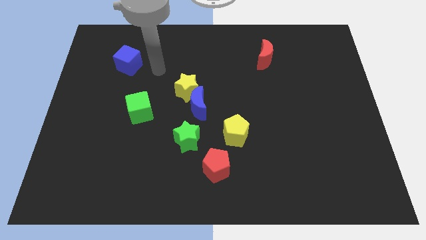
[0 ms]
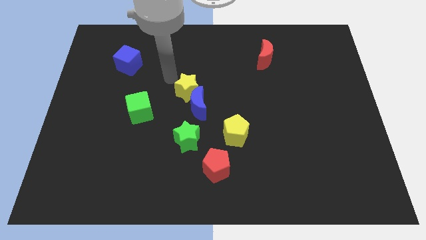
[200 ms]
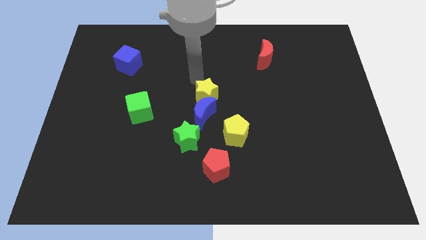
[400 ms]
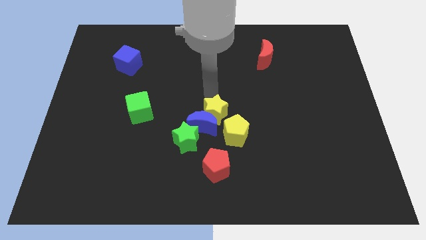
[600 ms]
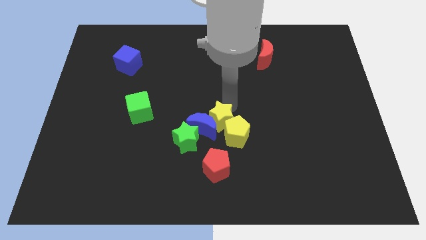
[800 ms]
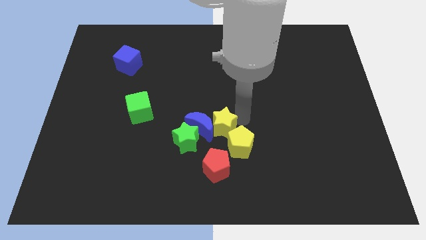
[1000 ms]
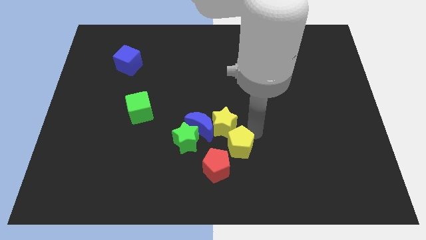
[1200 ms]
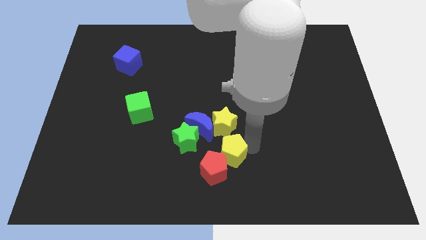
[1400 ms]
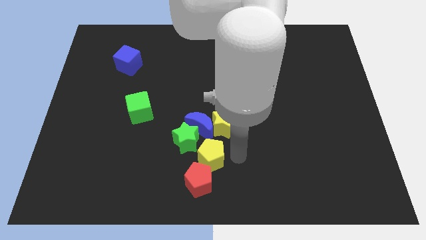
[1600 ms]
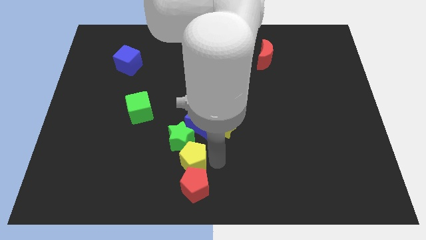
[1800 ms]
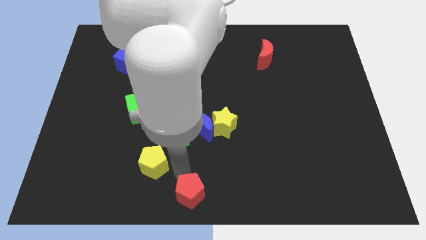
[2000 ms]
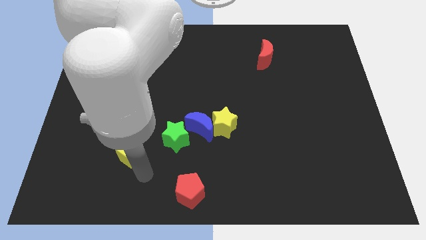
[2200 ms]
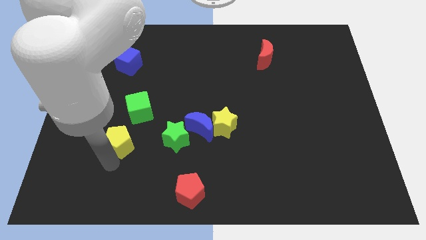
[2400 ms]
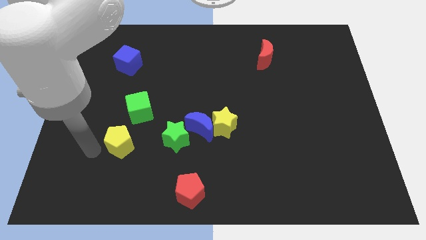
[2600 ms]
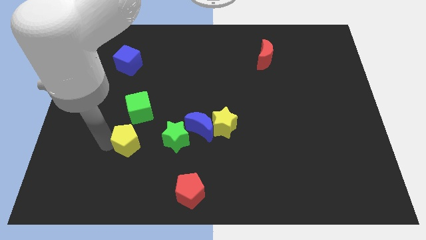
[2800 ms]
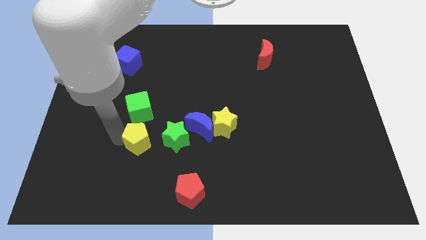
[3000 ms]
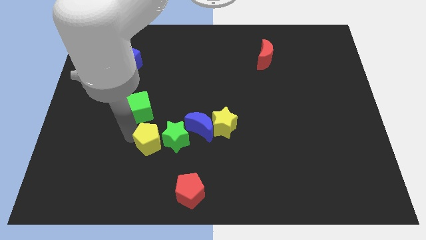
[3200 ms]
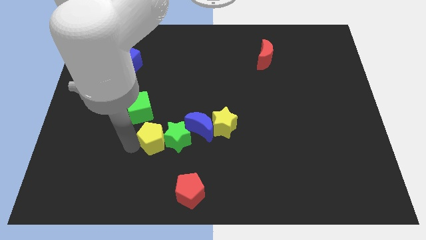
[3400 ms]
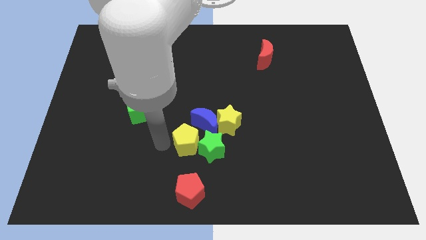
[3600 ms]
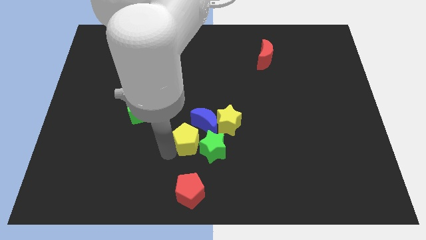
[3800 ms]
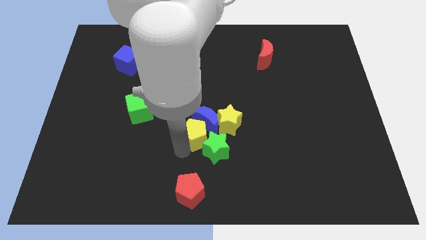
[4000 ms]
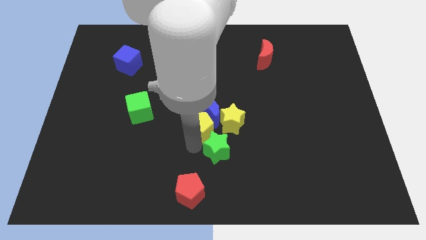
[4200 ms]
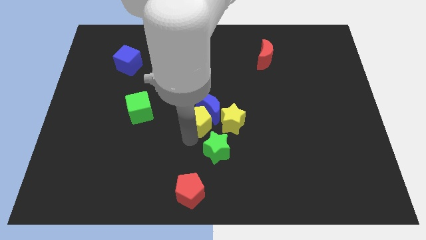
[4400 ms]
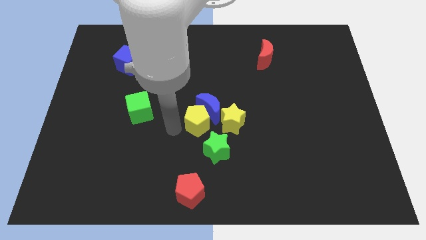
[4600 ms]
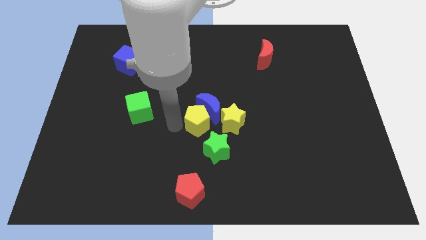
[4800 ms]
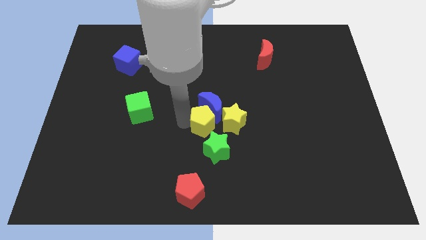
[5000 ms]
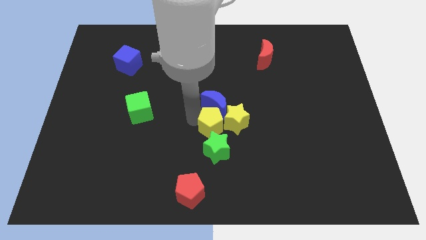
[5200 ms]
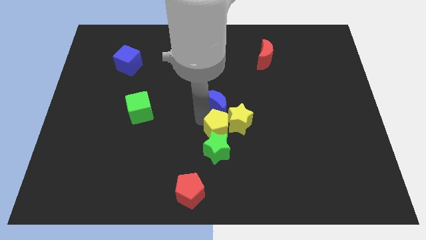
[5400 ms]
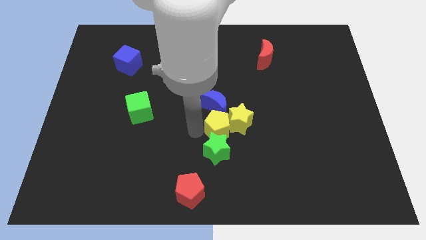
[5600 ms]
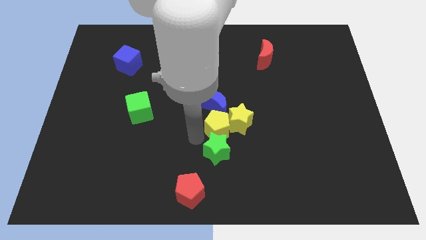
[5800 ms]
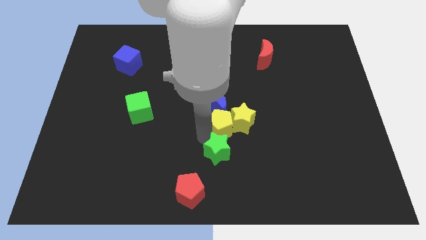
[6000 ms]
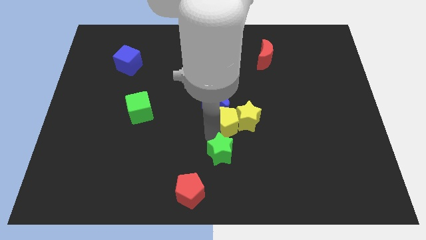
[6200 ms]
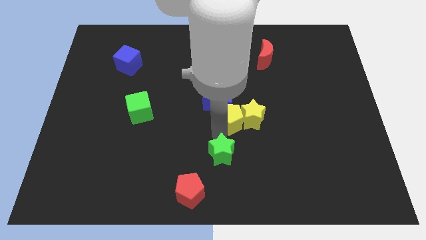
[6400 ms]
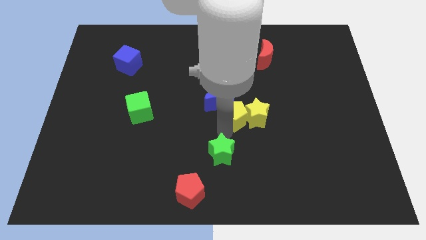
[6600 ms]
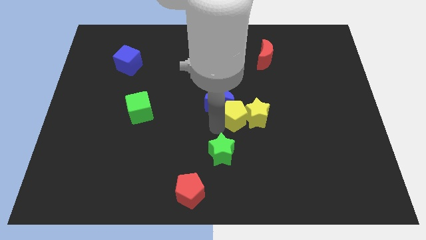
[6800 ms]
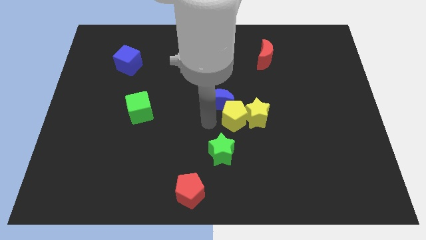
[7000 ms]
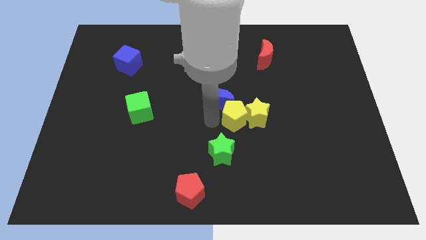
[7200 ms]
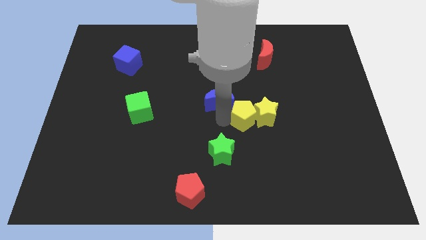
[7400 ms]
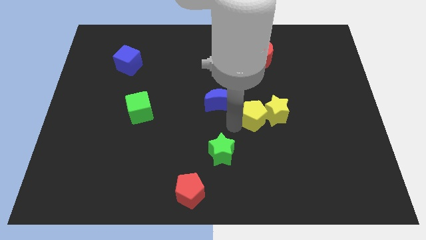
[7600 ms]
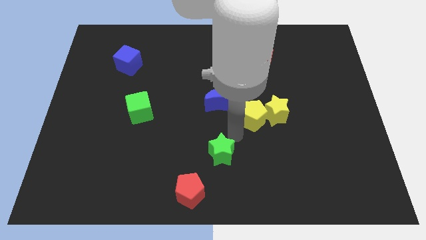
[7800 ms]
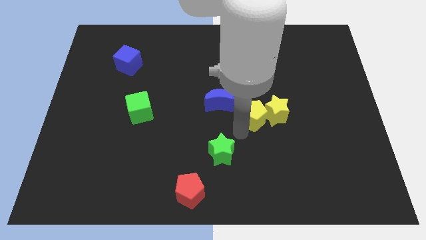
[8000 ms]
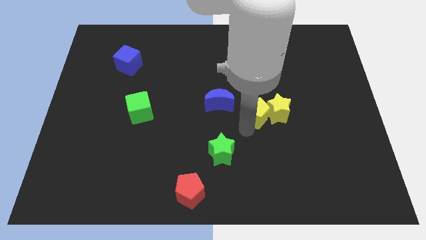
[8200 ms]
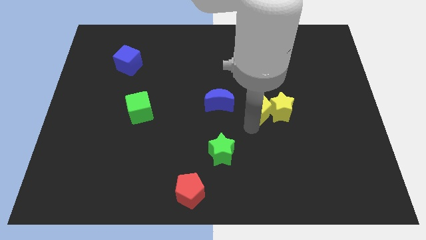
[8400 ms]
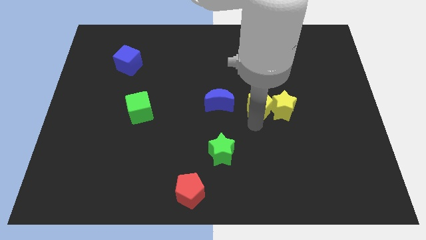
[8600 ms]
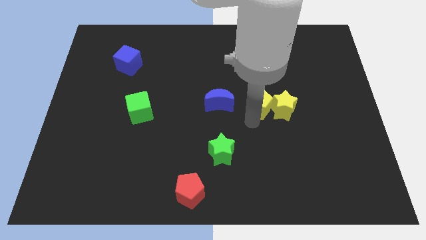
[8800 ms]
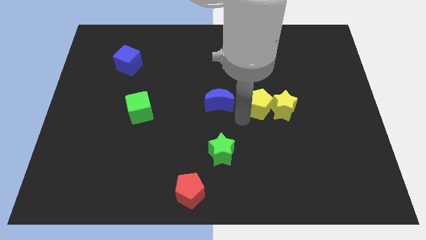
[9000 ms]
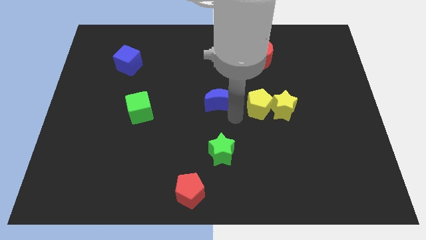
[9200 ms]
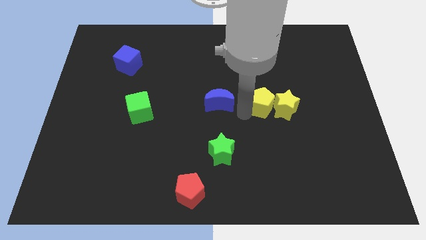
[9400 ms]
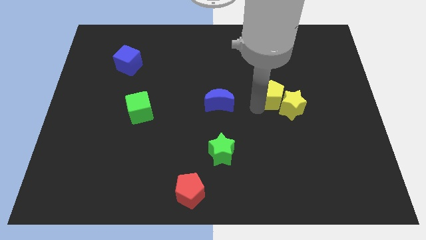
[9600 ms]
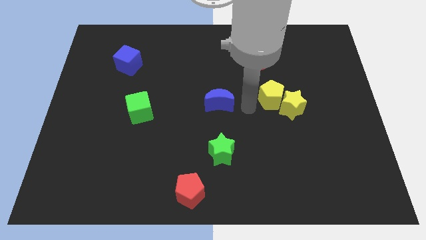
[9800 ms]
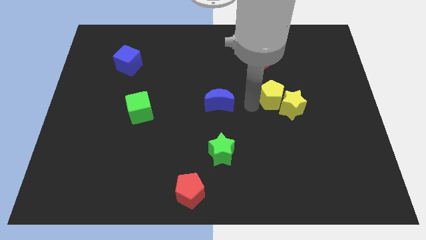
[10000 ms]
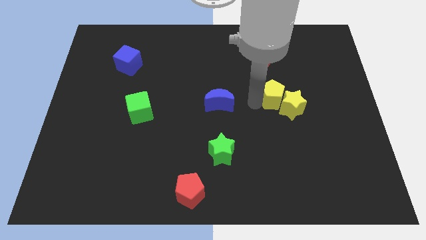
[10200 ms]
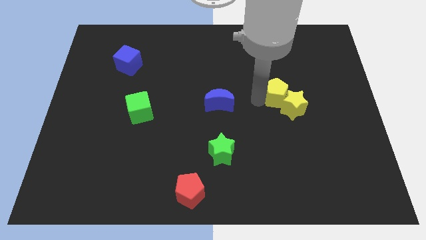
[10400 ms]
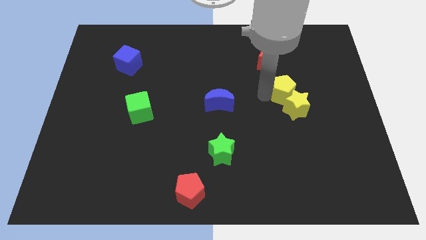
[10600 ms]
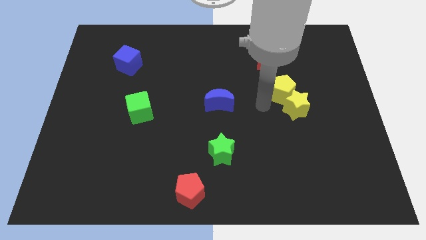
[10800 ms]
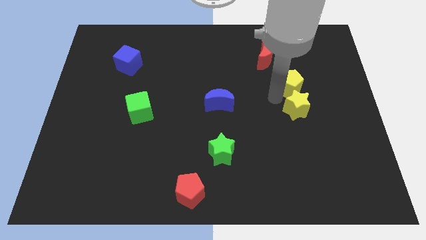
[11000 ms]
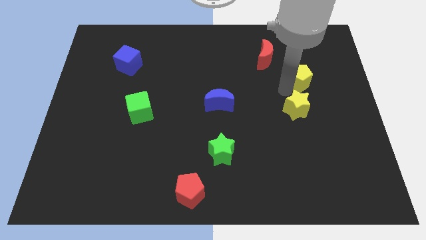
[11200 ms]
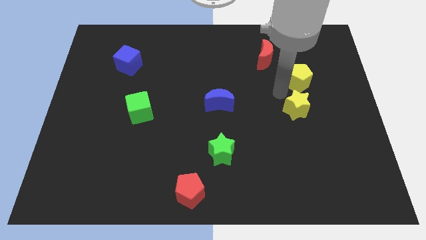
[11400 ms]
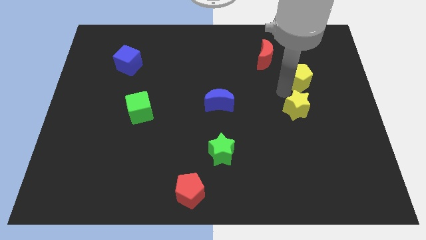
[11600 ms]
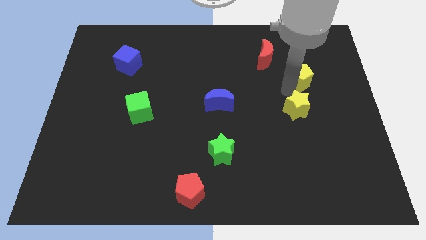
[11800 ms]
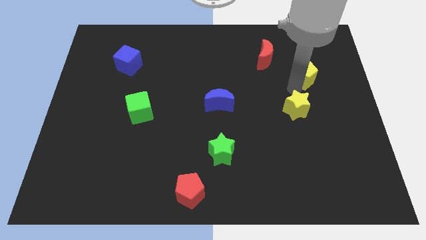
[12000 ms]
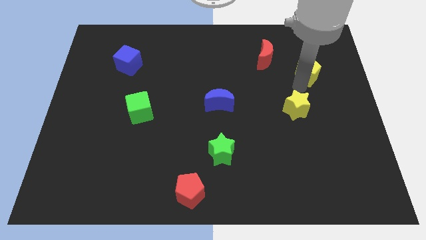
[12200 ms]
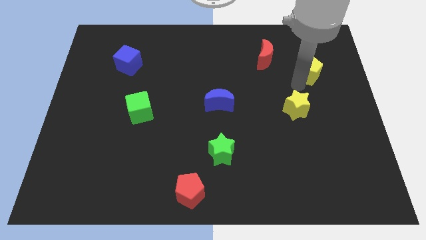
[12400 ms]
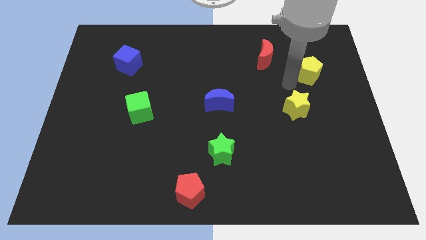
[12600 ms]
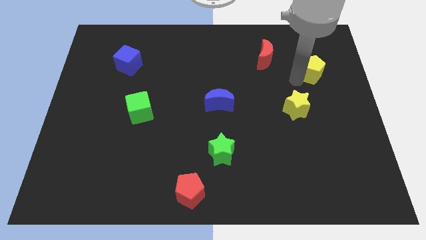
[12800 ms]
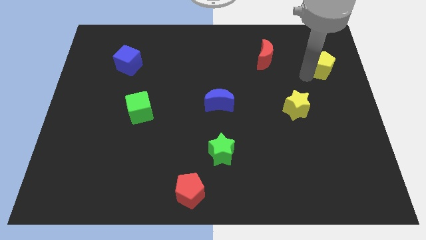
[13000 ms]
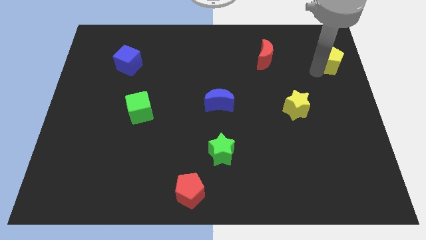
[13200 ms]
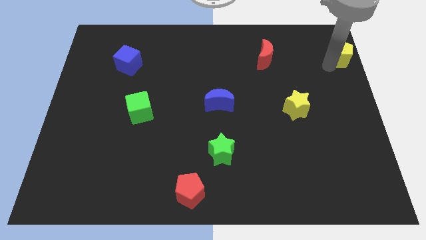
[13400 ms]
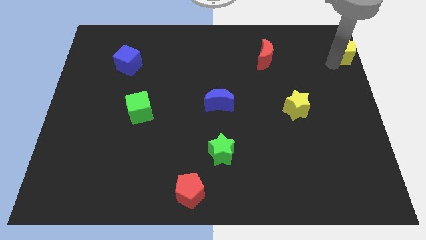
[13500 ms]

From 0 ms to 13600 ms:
slide the yellow pentagon to the top right
